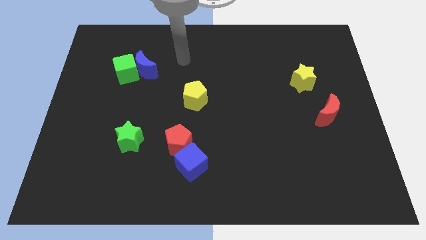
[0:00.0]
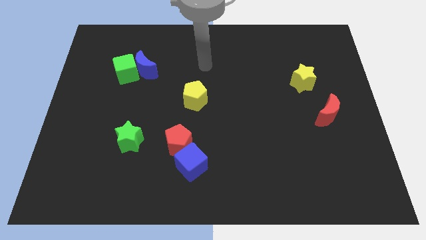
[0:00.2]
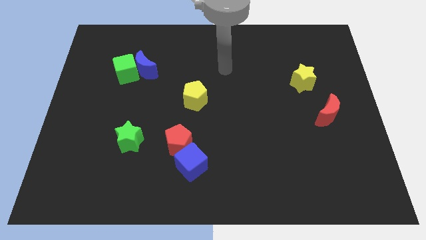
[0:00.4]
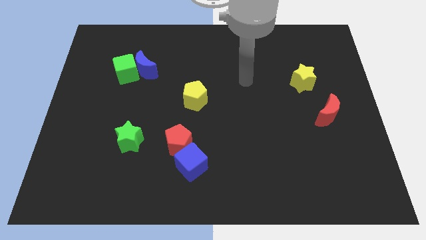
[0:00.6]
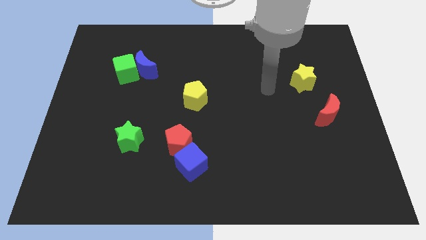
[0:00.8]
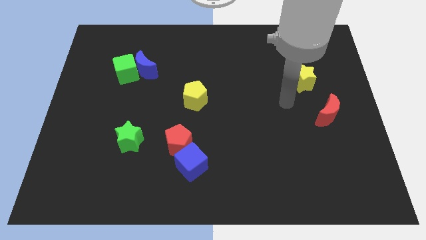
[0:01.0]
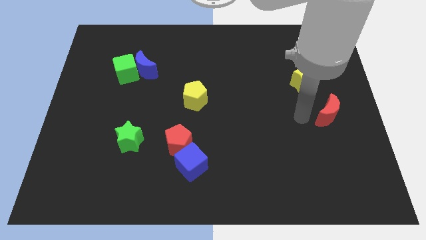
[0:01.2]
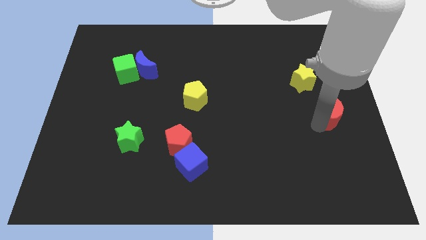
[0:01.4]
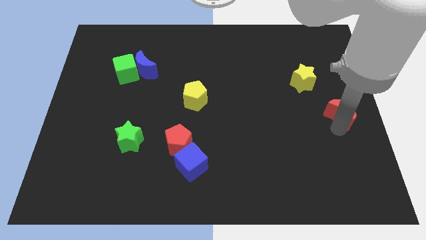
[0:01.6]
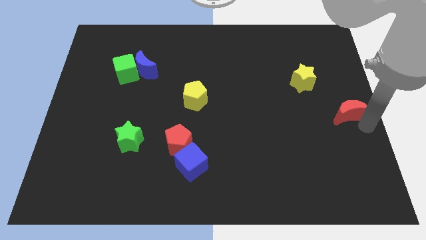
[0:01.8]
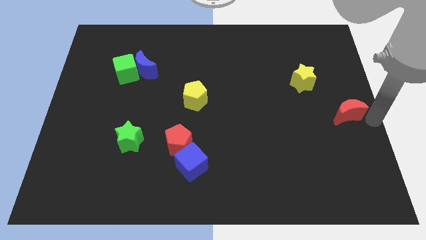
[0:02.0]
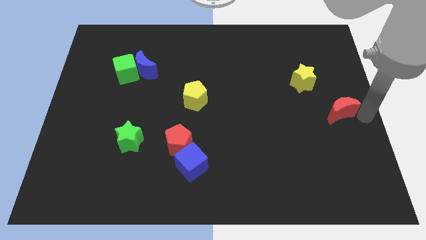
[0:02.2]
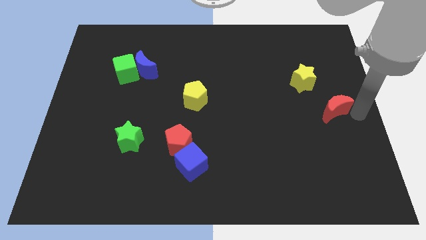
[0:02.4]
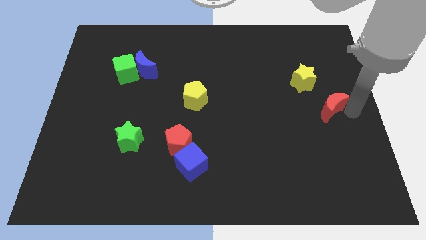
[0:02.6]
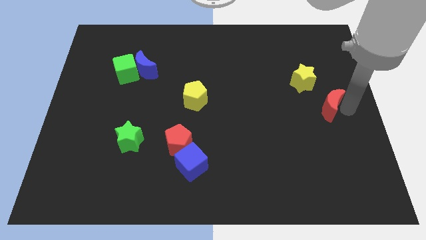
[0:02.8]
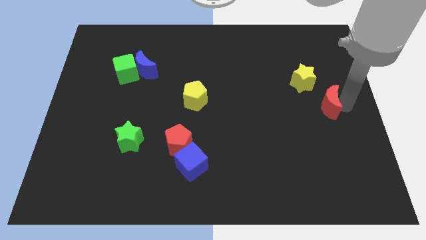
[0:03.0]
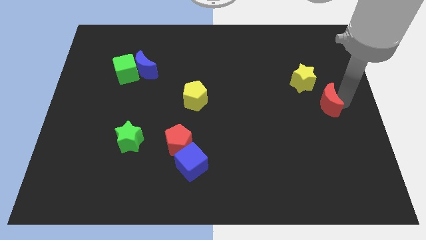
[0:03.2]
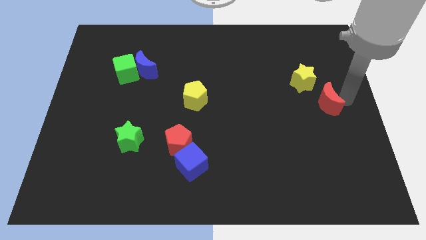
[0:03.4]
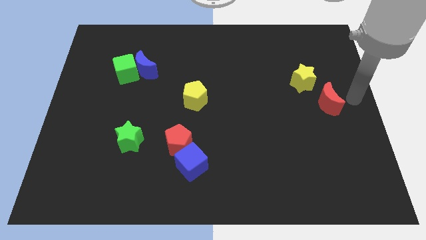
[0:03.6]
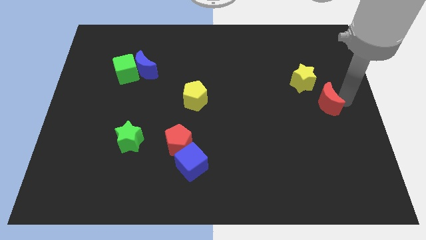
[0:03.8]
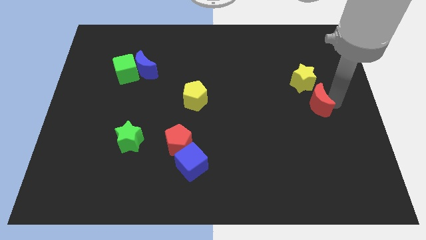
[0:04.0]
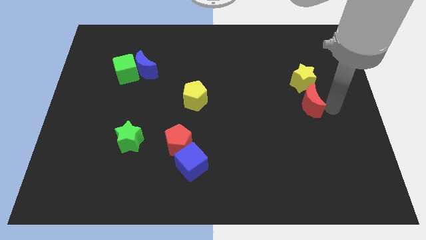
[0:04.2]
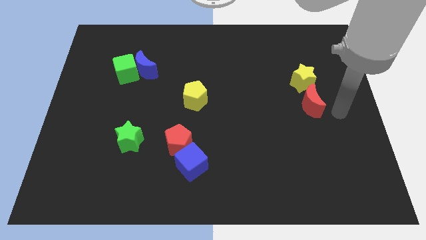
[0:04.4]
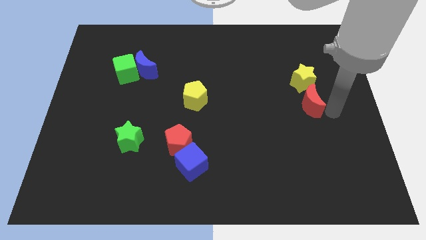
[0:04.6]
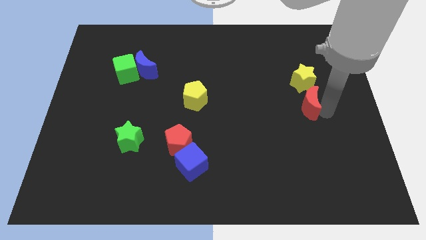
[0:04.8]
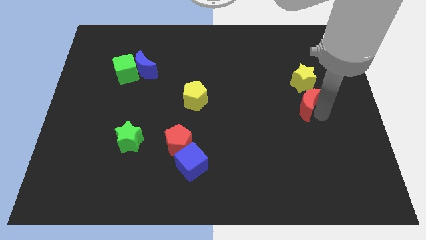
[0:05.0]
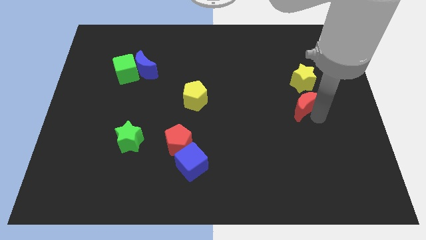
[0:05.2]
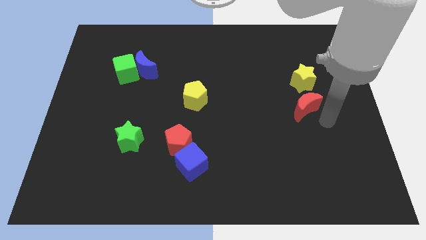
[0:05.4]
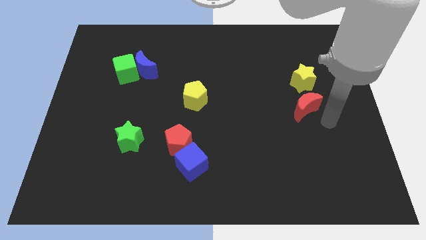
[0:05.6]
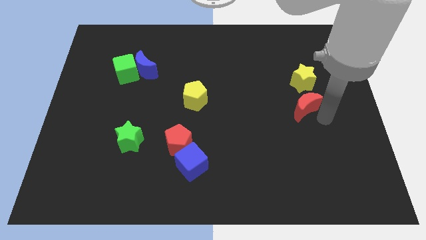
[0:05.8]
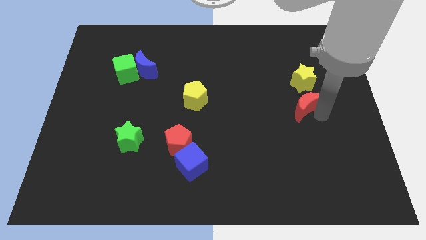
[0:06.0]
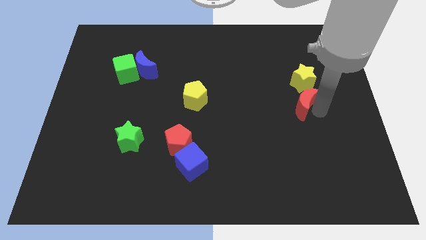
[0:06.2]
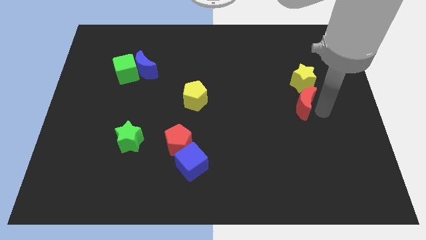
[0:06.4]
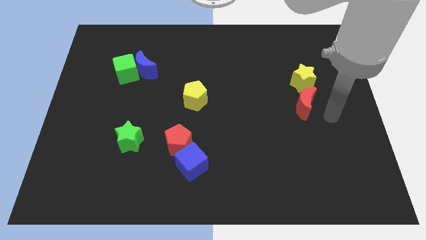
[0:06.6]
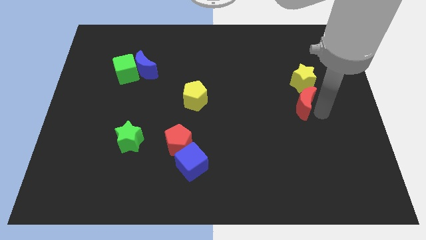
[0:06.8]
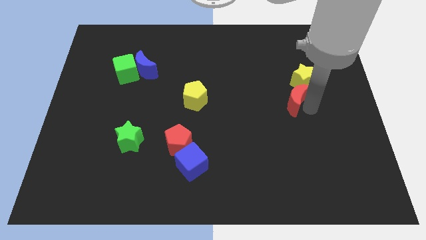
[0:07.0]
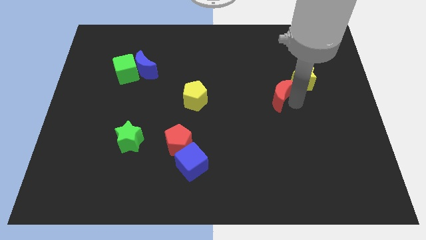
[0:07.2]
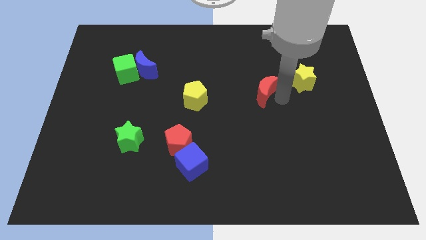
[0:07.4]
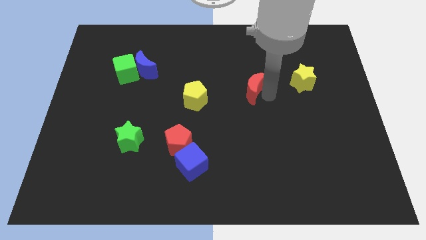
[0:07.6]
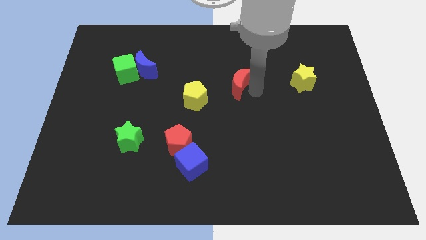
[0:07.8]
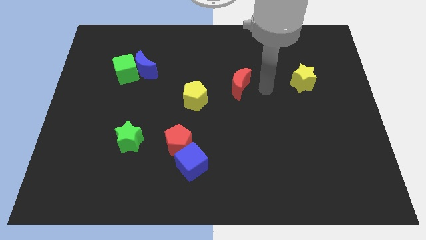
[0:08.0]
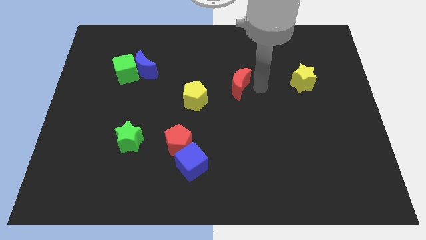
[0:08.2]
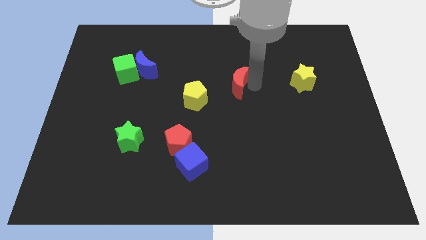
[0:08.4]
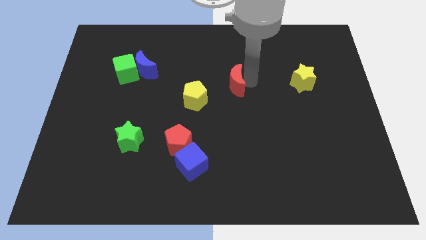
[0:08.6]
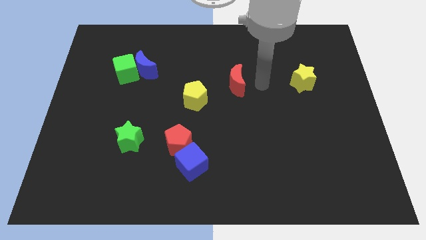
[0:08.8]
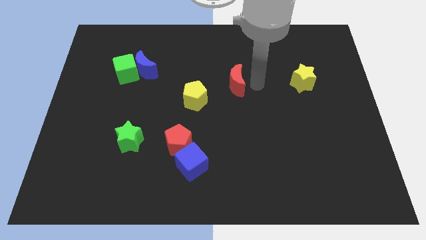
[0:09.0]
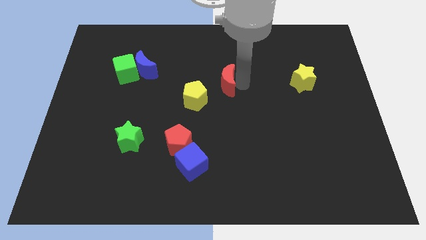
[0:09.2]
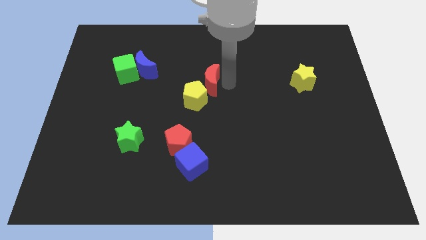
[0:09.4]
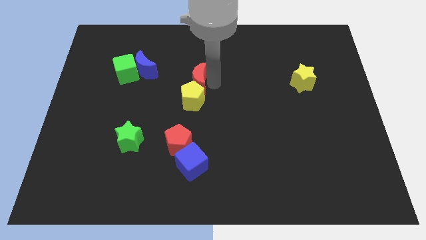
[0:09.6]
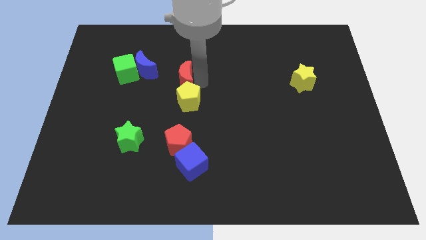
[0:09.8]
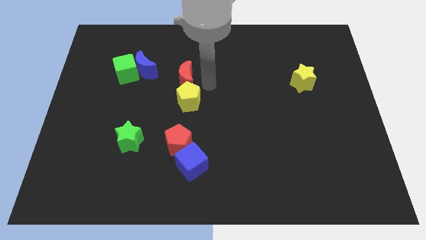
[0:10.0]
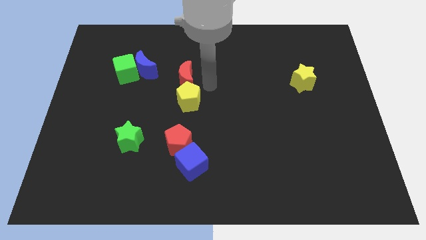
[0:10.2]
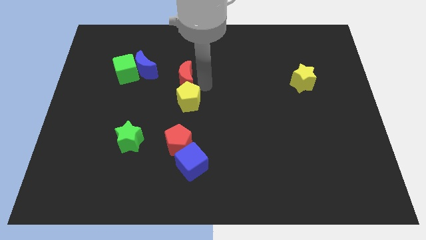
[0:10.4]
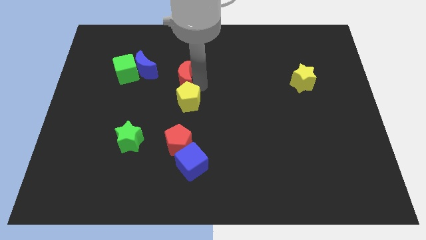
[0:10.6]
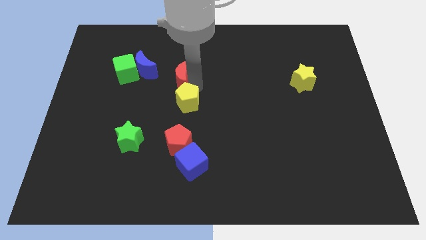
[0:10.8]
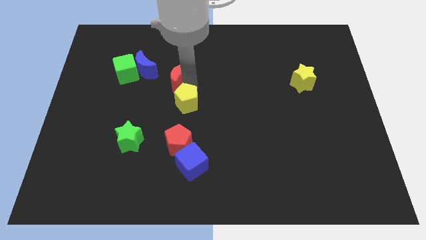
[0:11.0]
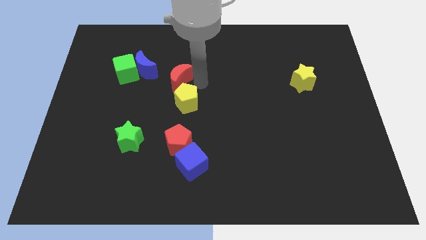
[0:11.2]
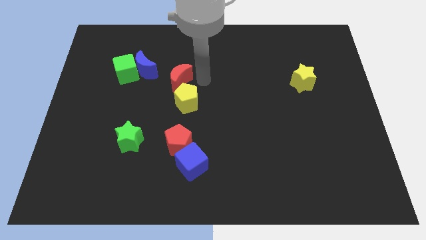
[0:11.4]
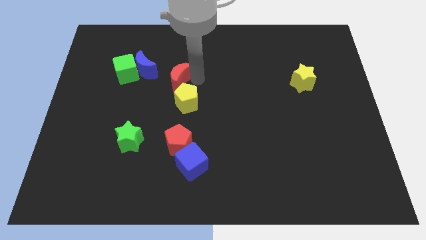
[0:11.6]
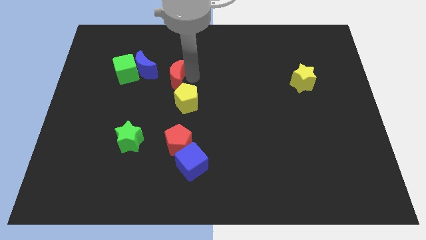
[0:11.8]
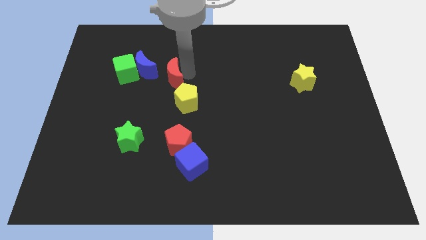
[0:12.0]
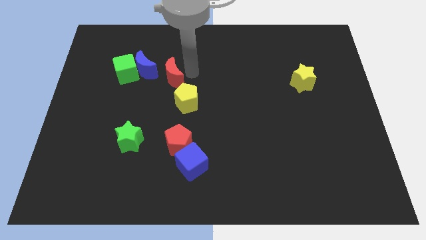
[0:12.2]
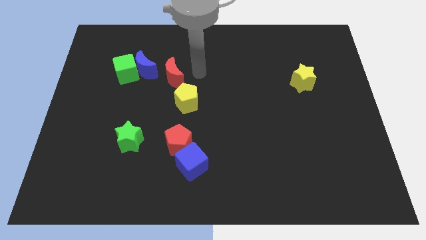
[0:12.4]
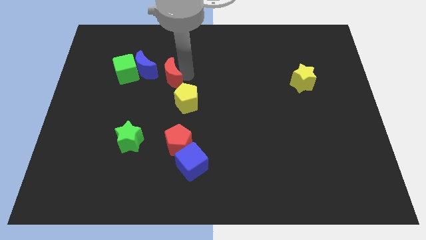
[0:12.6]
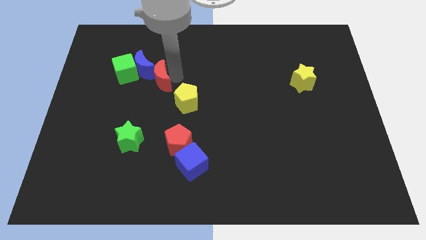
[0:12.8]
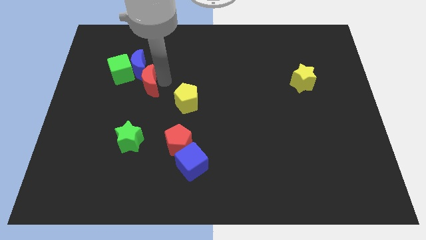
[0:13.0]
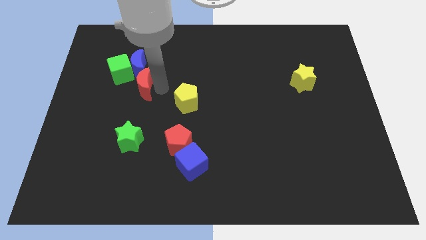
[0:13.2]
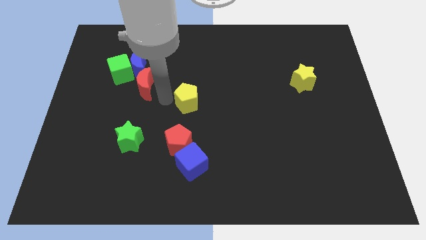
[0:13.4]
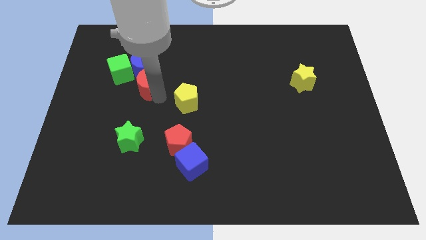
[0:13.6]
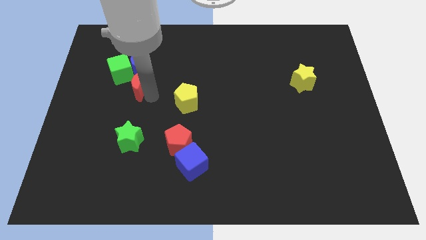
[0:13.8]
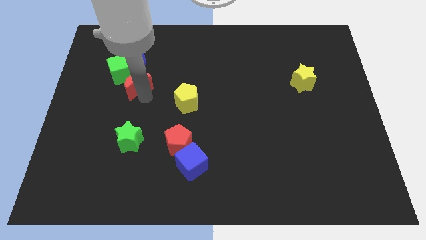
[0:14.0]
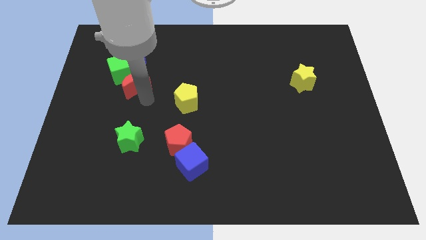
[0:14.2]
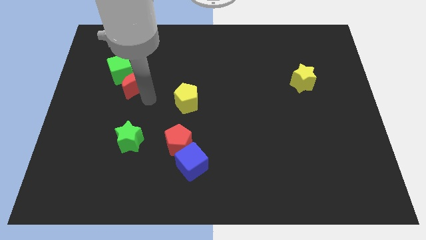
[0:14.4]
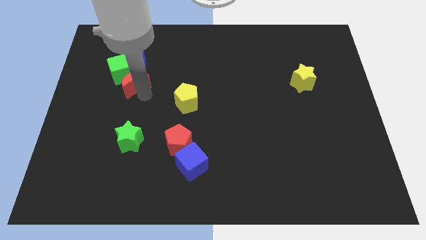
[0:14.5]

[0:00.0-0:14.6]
move the red moon close to the green cube
